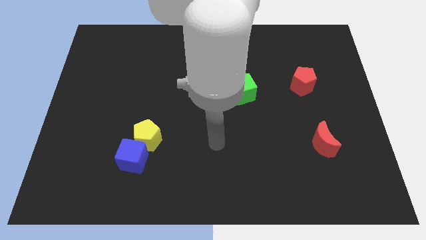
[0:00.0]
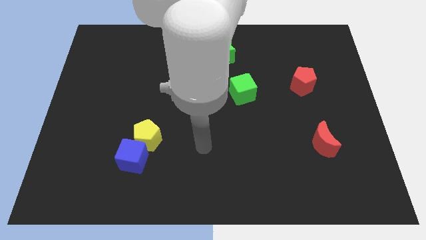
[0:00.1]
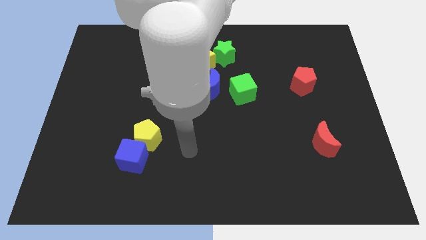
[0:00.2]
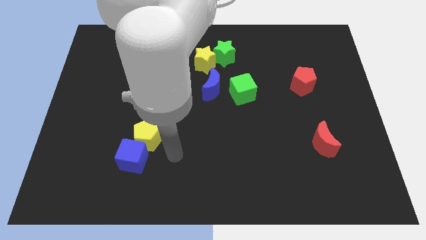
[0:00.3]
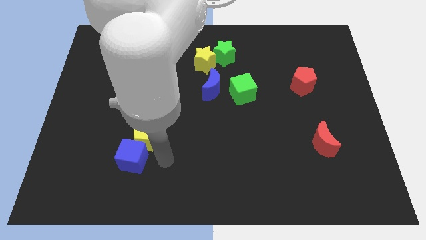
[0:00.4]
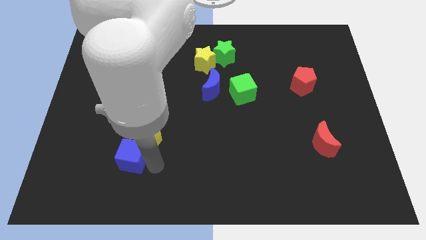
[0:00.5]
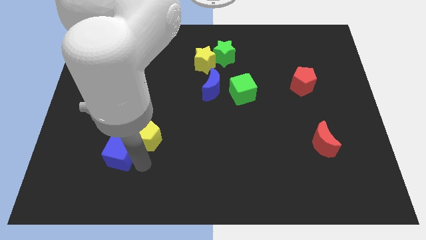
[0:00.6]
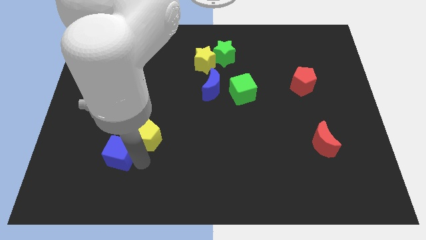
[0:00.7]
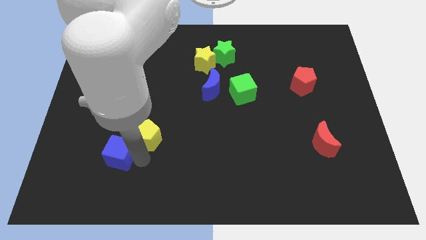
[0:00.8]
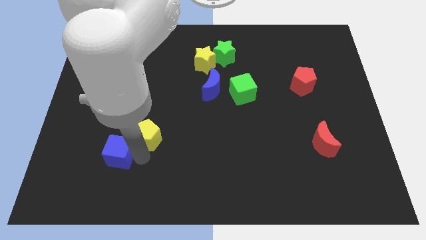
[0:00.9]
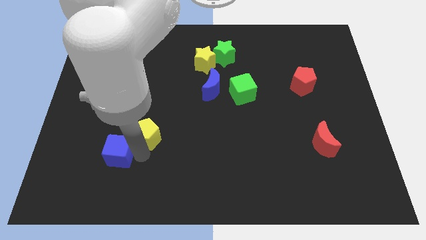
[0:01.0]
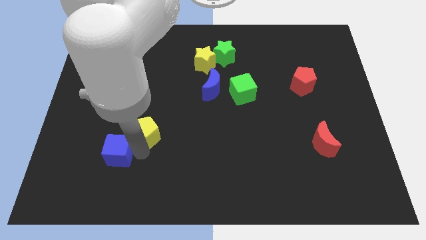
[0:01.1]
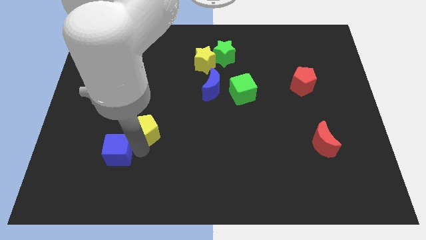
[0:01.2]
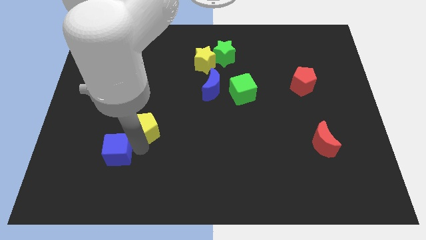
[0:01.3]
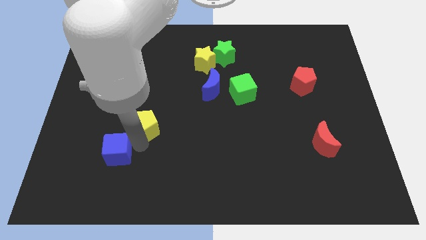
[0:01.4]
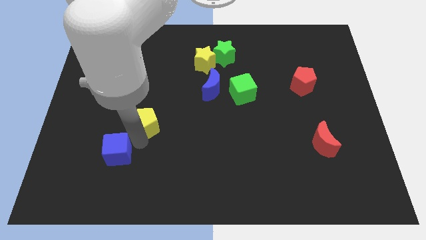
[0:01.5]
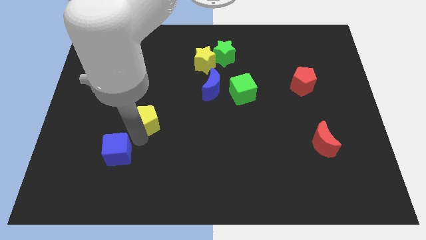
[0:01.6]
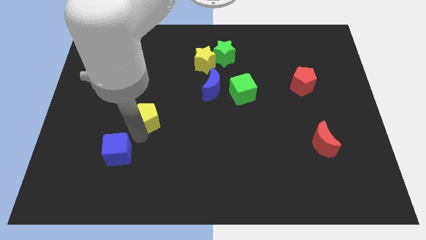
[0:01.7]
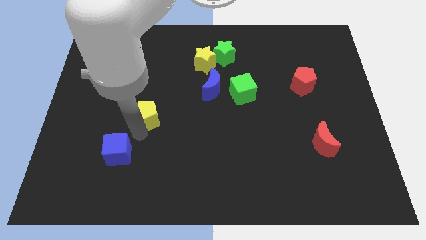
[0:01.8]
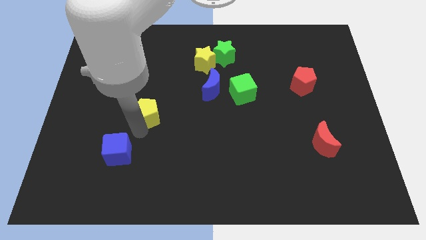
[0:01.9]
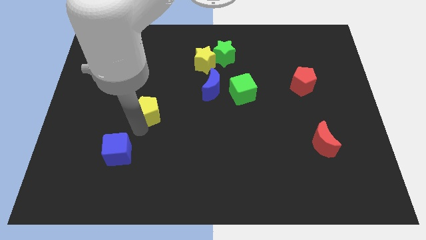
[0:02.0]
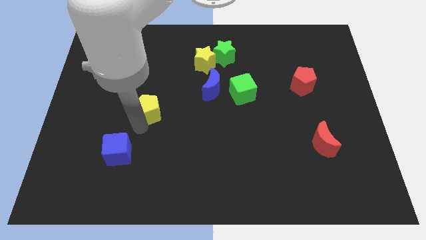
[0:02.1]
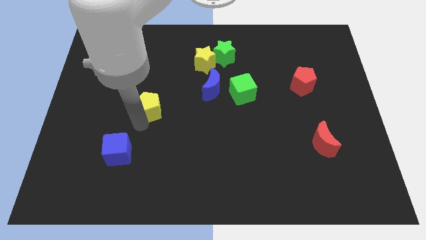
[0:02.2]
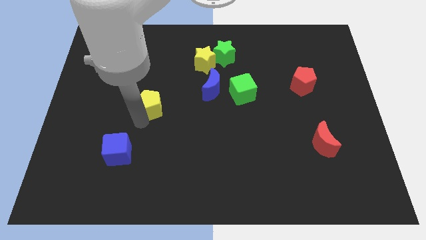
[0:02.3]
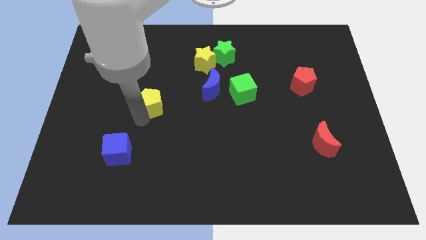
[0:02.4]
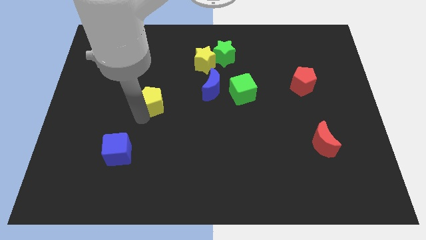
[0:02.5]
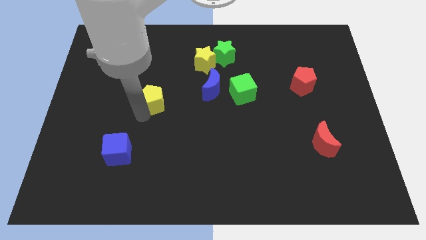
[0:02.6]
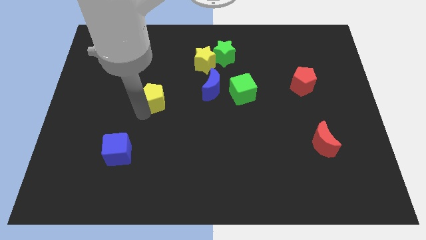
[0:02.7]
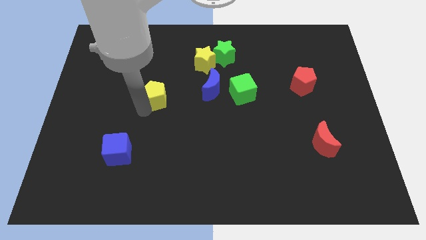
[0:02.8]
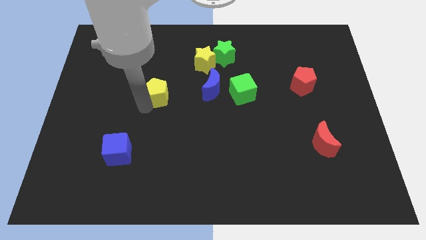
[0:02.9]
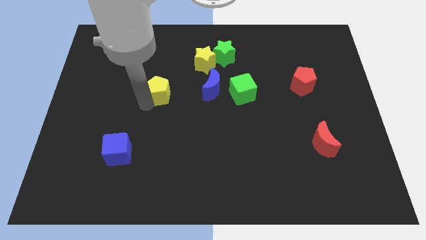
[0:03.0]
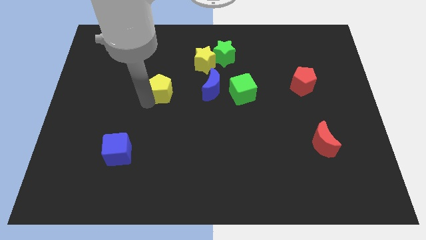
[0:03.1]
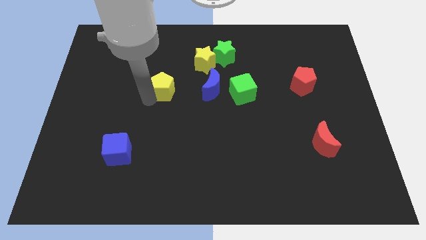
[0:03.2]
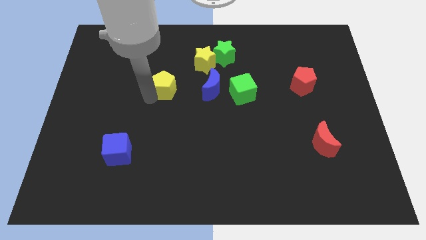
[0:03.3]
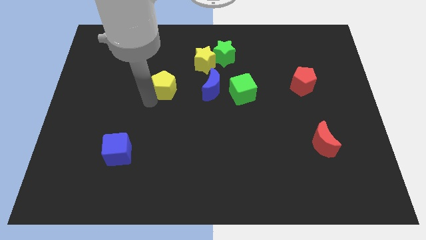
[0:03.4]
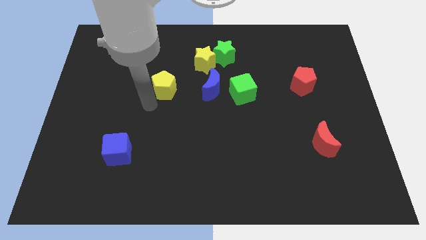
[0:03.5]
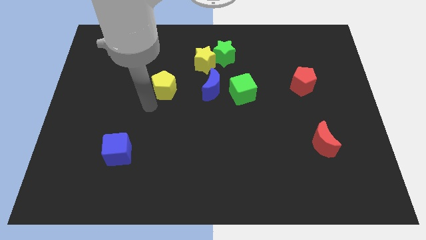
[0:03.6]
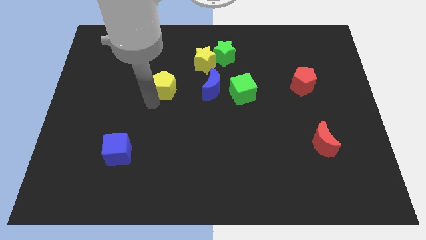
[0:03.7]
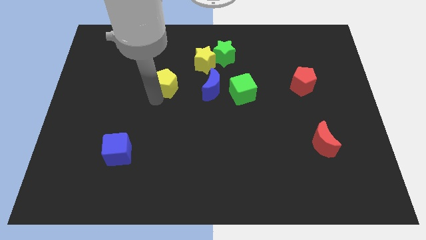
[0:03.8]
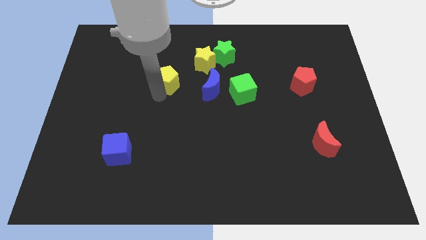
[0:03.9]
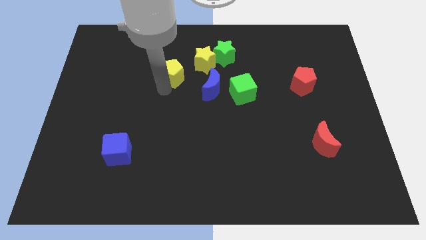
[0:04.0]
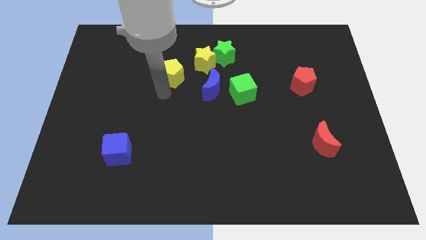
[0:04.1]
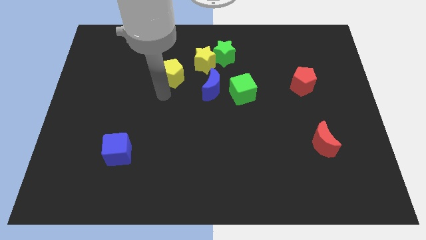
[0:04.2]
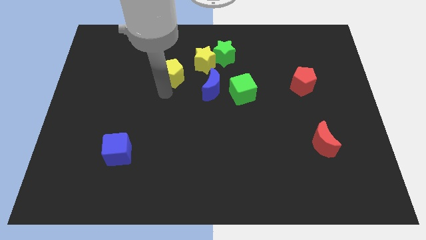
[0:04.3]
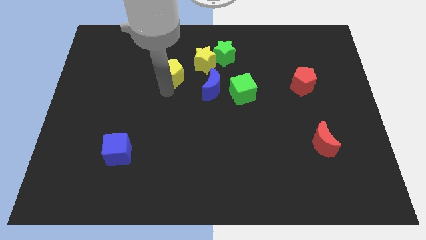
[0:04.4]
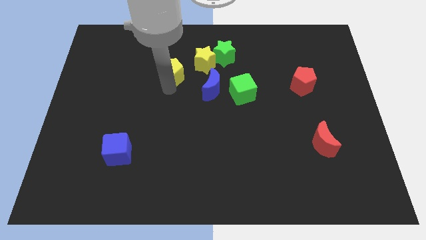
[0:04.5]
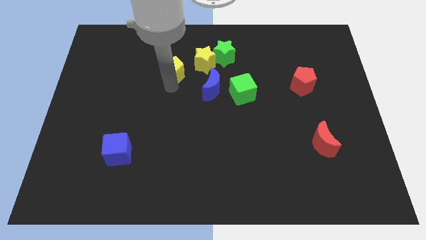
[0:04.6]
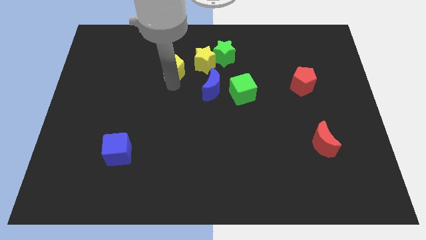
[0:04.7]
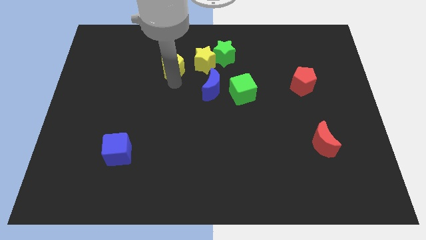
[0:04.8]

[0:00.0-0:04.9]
put the yellow pentagon just left of the green star

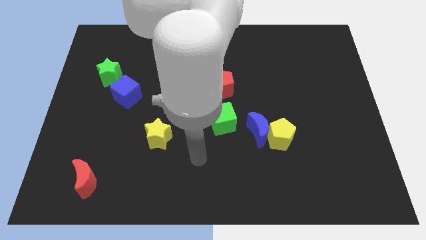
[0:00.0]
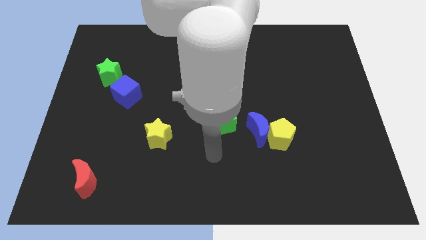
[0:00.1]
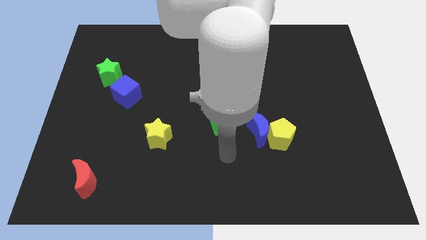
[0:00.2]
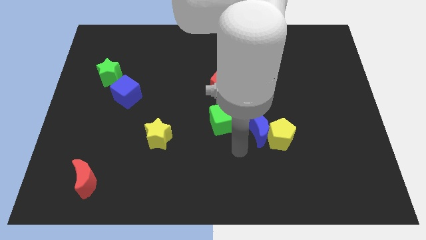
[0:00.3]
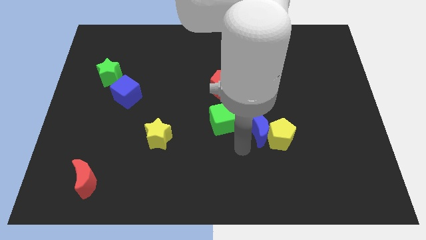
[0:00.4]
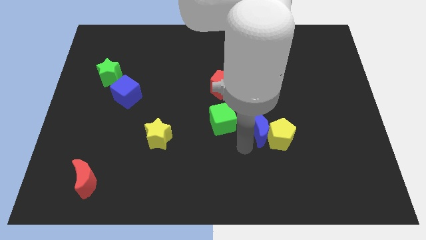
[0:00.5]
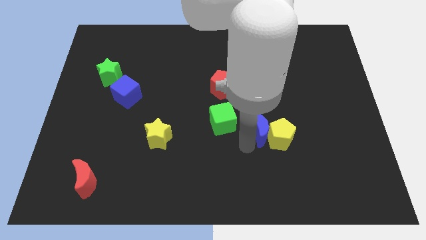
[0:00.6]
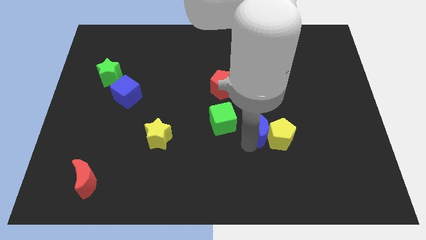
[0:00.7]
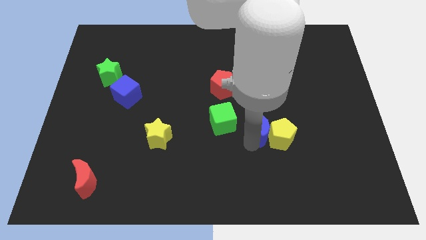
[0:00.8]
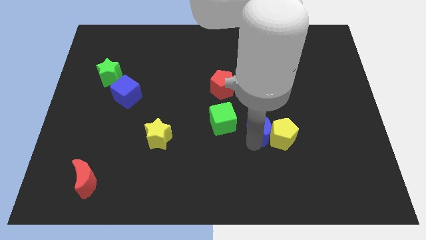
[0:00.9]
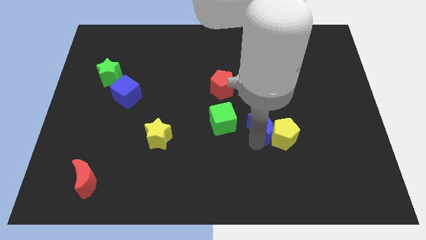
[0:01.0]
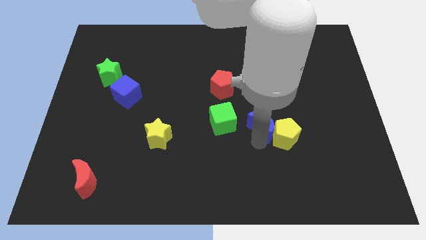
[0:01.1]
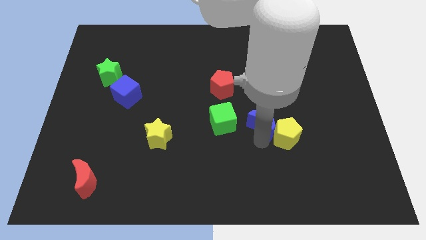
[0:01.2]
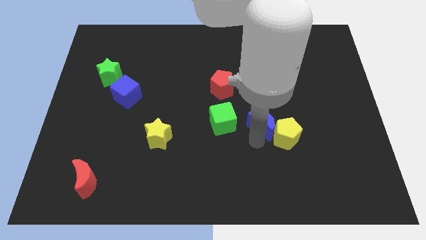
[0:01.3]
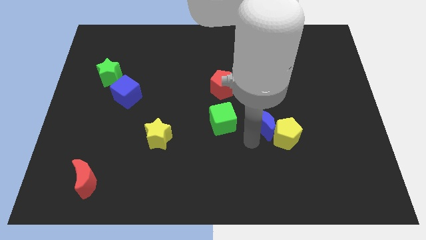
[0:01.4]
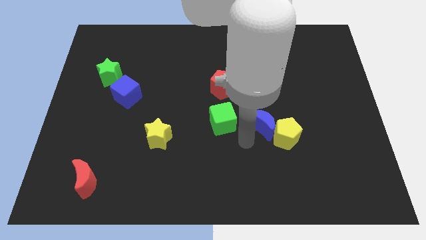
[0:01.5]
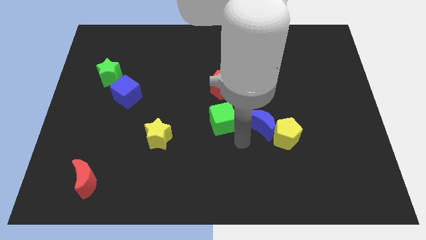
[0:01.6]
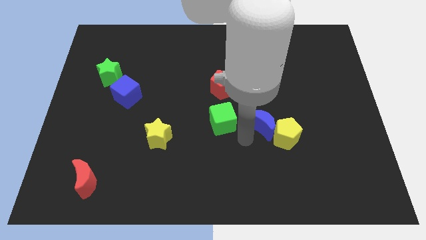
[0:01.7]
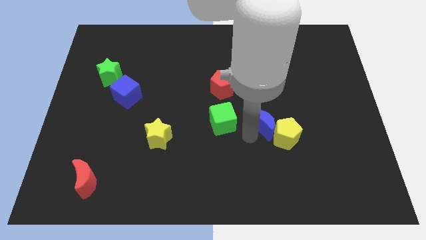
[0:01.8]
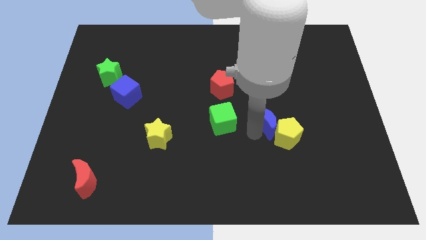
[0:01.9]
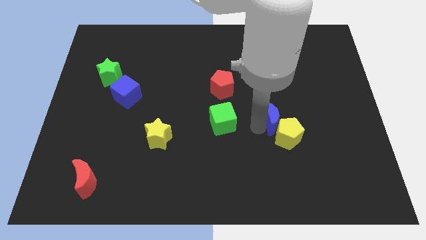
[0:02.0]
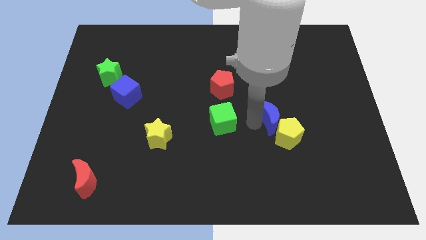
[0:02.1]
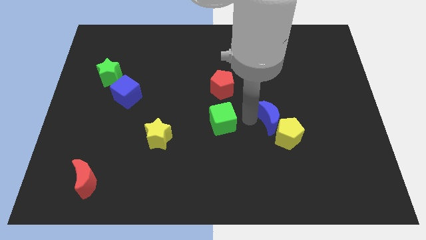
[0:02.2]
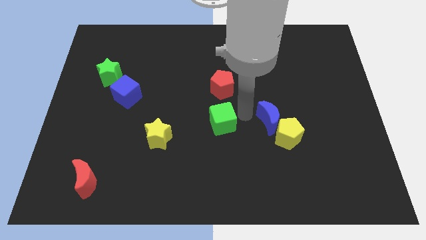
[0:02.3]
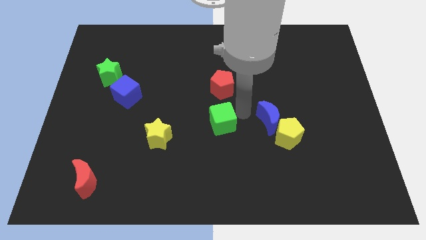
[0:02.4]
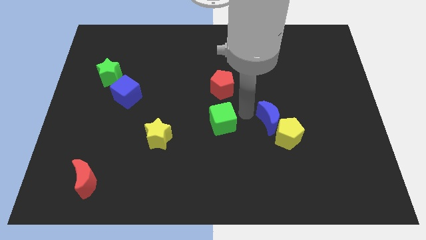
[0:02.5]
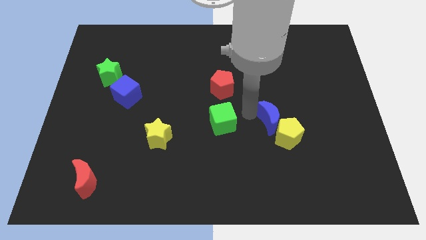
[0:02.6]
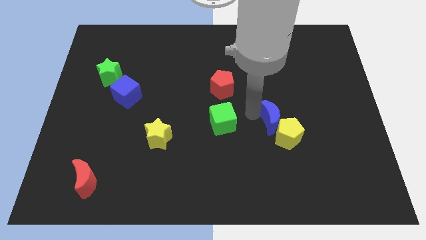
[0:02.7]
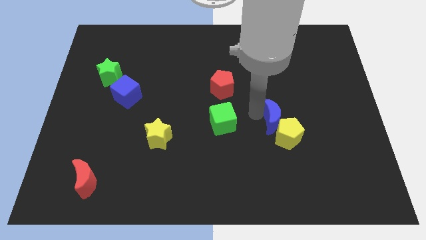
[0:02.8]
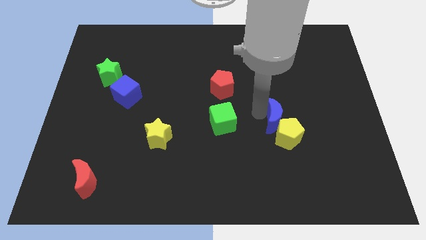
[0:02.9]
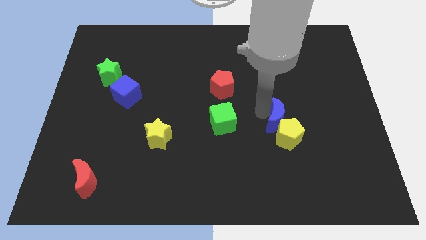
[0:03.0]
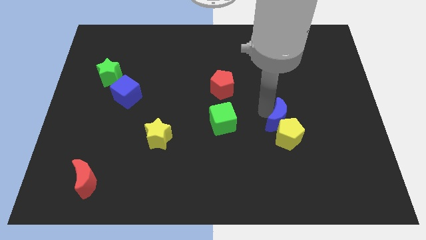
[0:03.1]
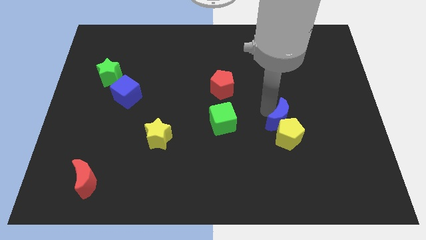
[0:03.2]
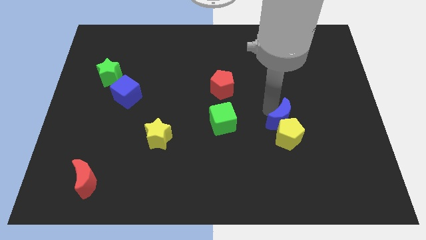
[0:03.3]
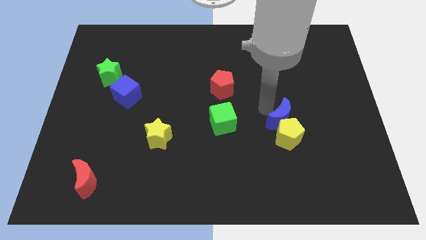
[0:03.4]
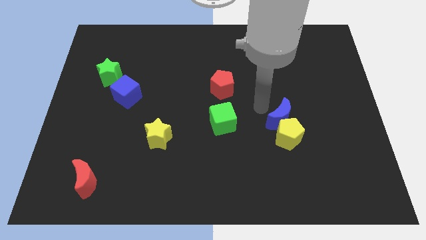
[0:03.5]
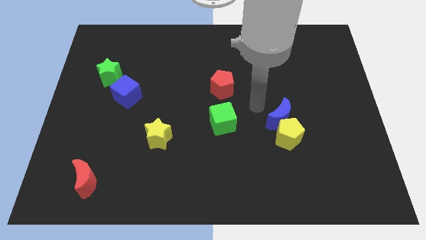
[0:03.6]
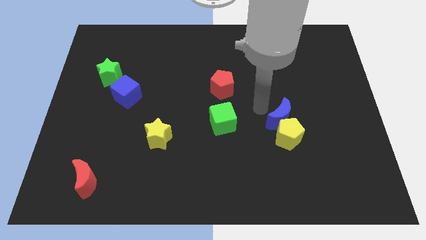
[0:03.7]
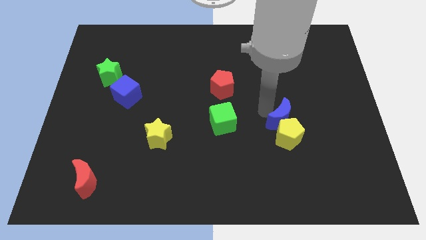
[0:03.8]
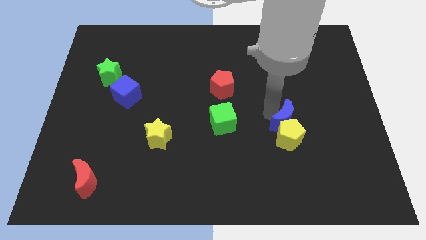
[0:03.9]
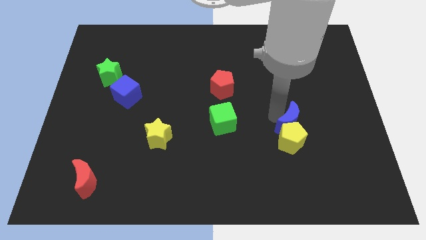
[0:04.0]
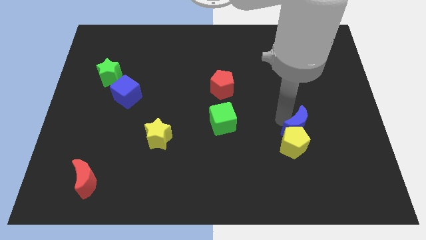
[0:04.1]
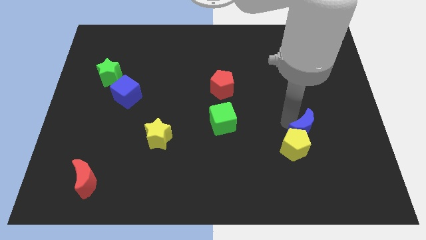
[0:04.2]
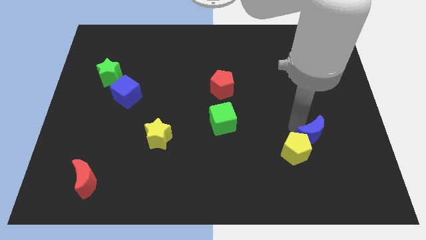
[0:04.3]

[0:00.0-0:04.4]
push the blue moon to the right of the yellow pentagon
